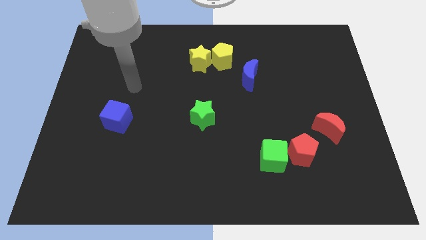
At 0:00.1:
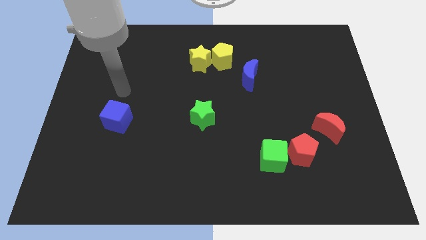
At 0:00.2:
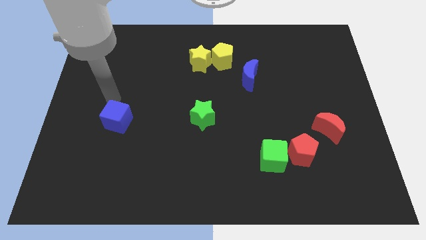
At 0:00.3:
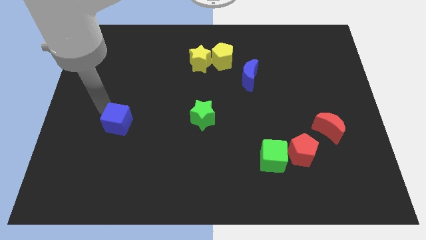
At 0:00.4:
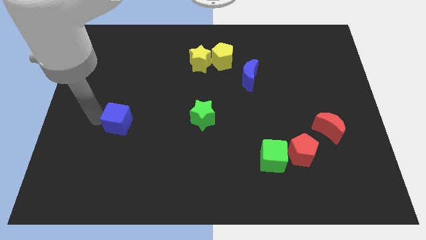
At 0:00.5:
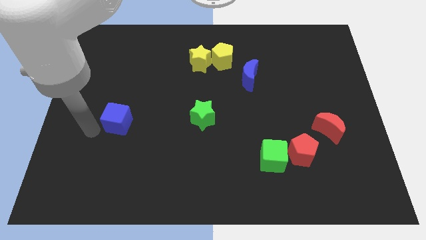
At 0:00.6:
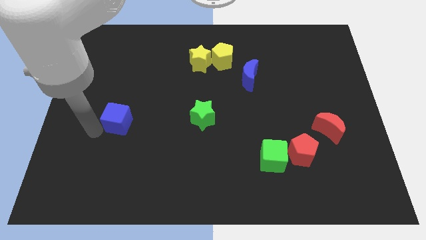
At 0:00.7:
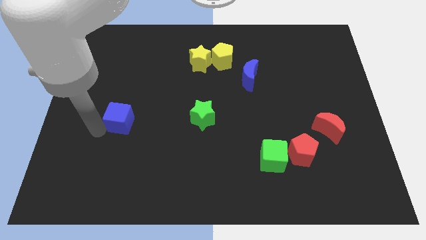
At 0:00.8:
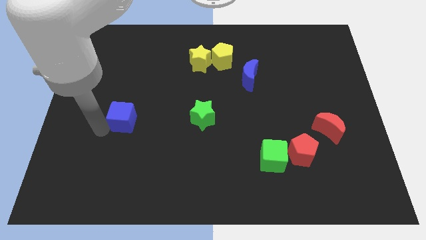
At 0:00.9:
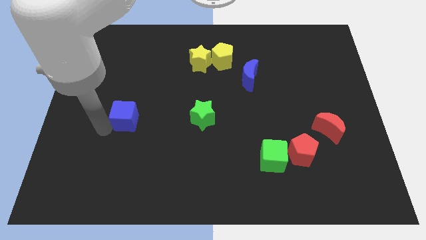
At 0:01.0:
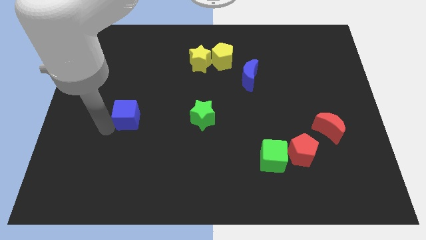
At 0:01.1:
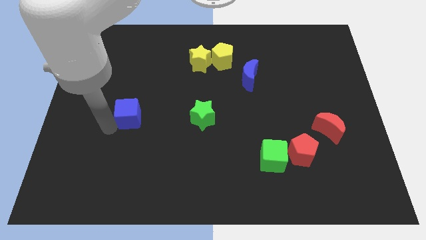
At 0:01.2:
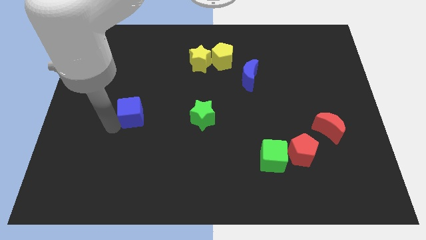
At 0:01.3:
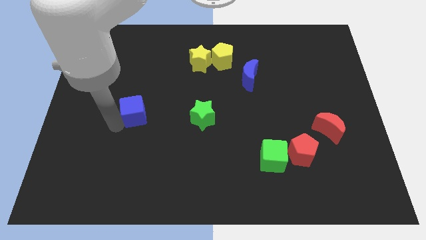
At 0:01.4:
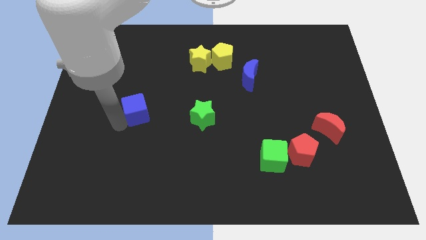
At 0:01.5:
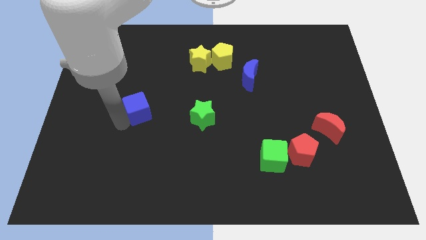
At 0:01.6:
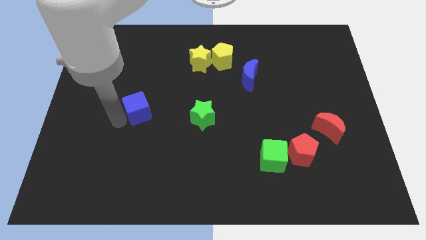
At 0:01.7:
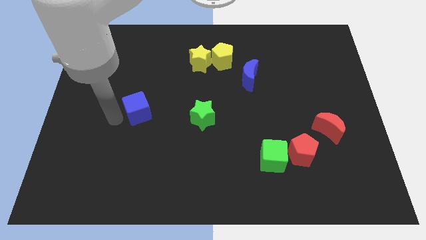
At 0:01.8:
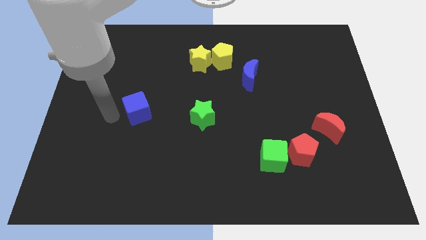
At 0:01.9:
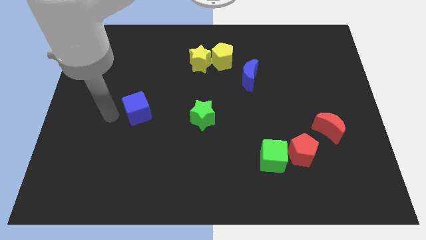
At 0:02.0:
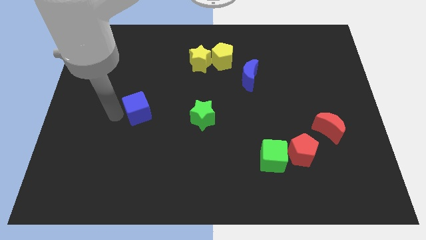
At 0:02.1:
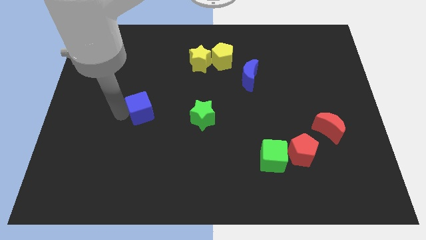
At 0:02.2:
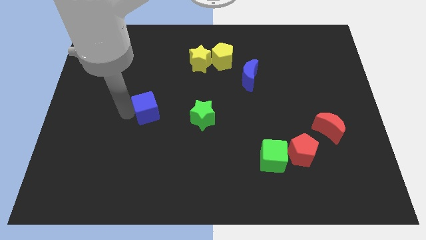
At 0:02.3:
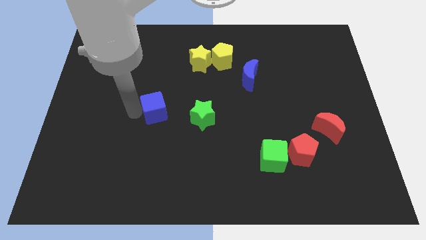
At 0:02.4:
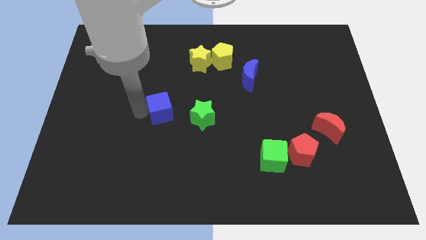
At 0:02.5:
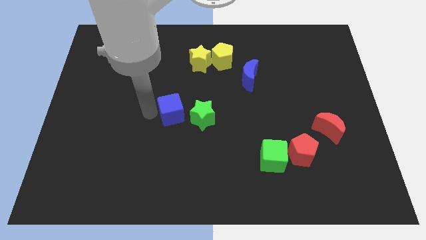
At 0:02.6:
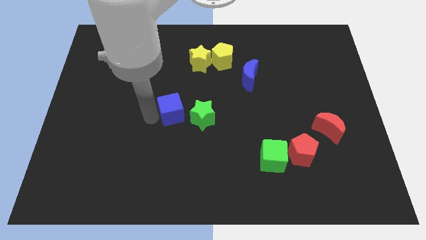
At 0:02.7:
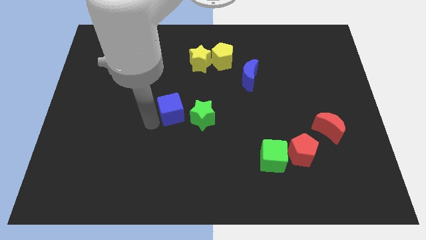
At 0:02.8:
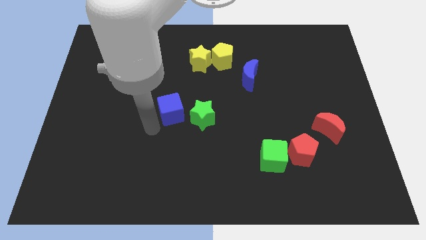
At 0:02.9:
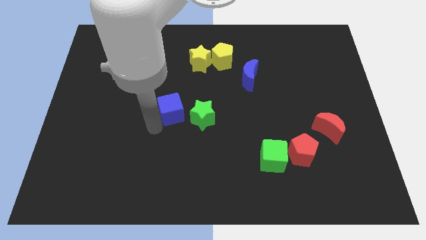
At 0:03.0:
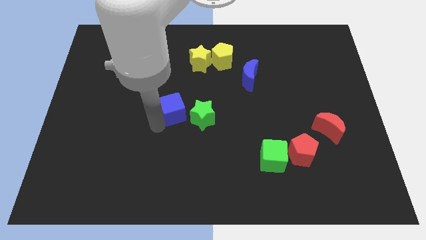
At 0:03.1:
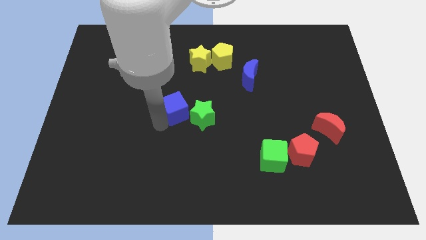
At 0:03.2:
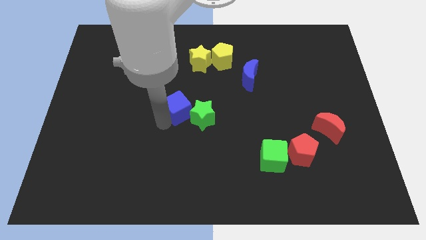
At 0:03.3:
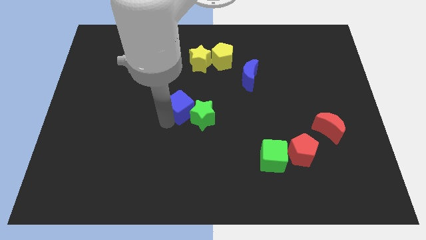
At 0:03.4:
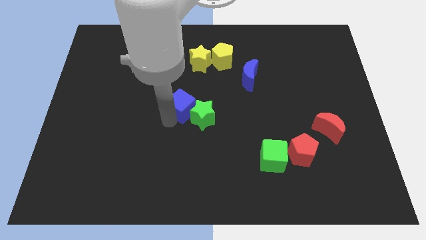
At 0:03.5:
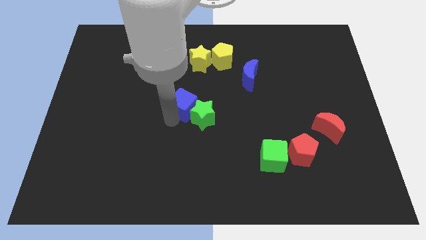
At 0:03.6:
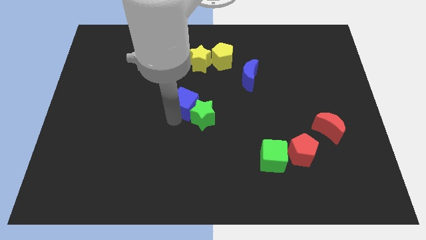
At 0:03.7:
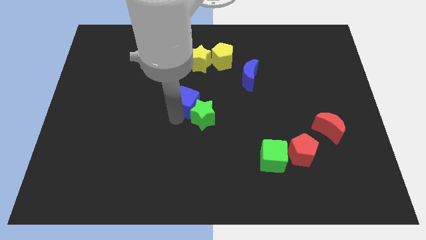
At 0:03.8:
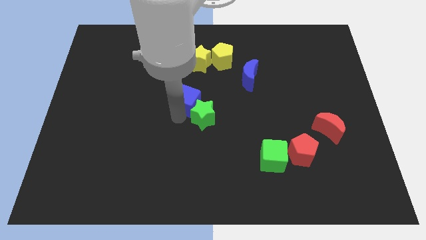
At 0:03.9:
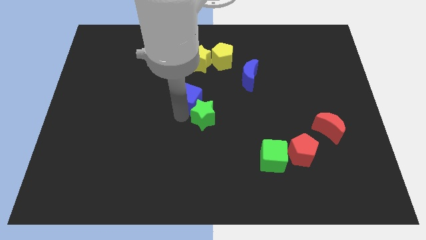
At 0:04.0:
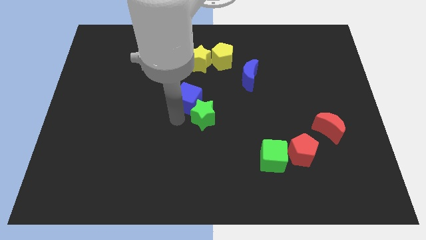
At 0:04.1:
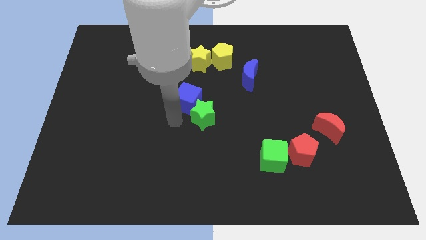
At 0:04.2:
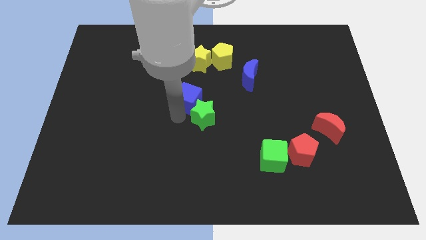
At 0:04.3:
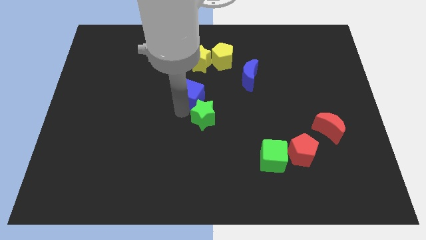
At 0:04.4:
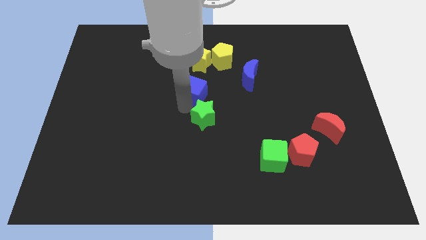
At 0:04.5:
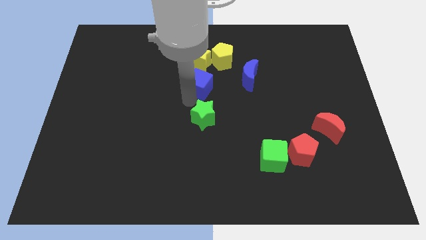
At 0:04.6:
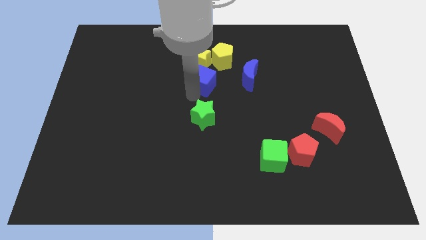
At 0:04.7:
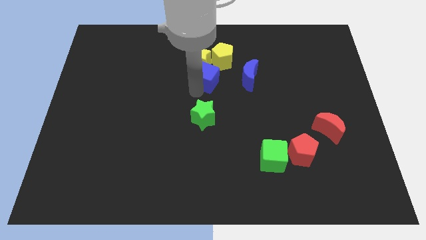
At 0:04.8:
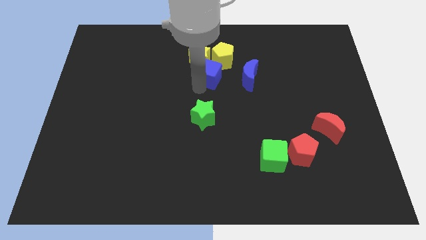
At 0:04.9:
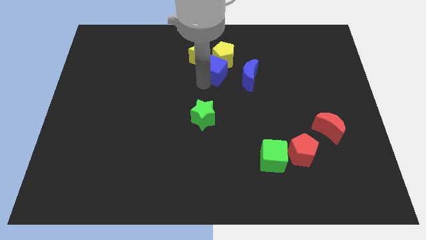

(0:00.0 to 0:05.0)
slide the blue cube close to the yellow pentagon

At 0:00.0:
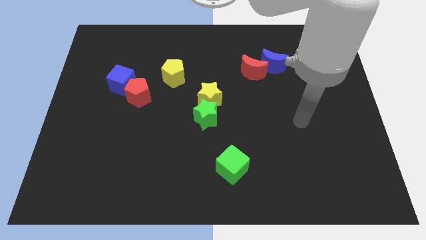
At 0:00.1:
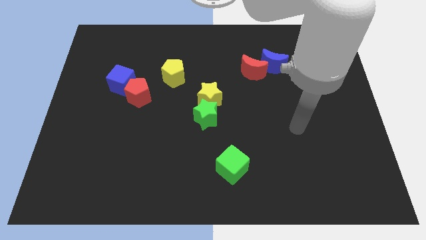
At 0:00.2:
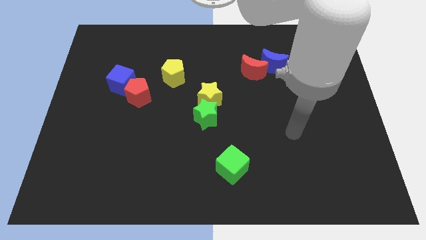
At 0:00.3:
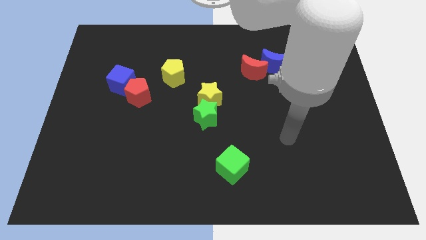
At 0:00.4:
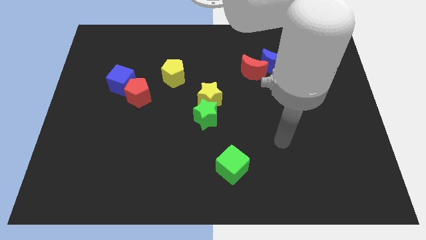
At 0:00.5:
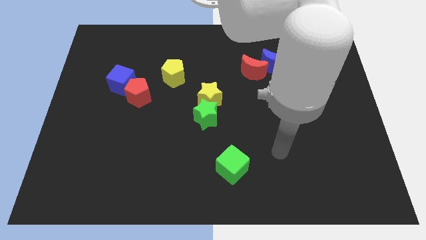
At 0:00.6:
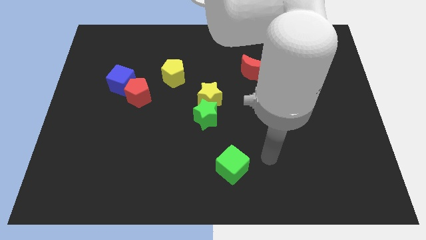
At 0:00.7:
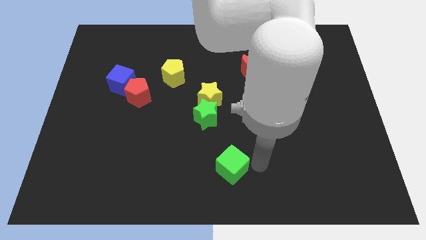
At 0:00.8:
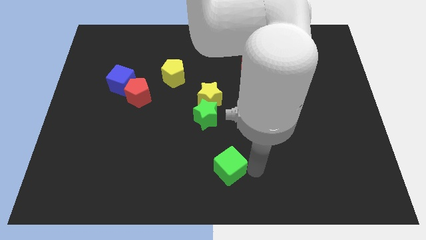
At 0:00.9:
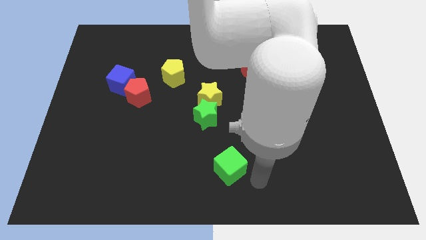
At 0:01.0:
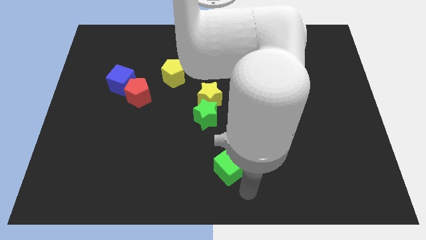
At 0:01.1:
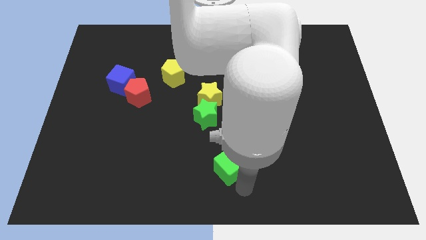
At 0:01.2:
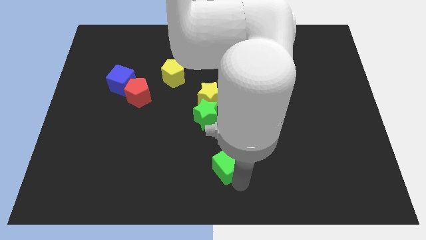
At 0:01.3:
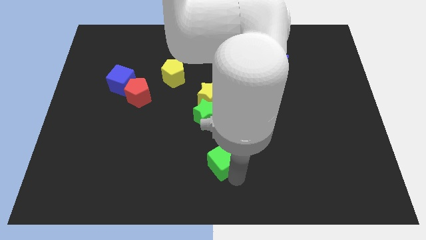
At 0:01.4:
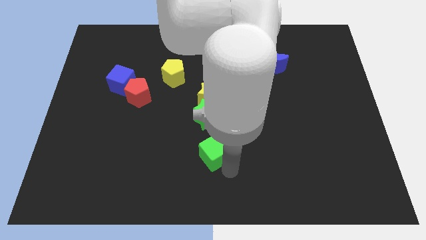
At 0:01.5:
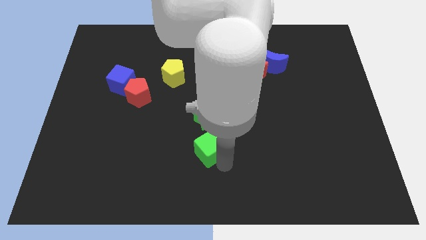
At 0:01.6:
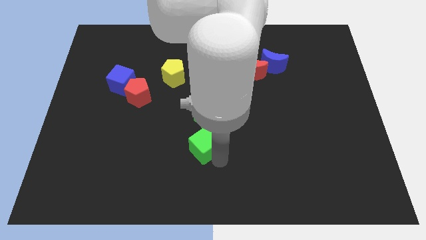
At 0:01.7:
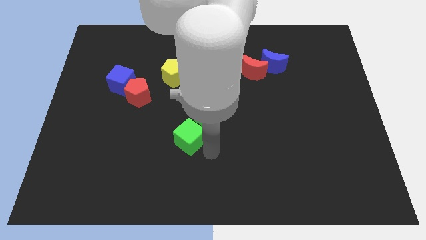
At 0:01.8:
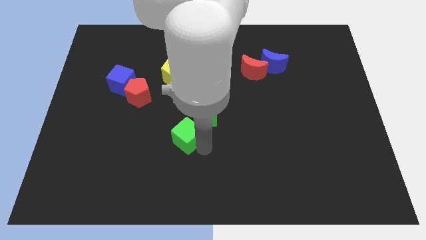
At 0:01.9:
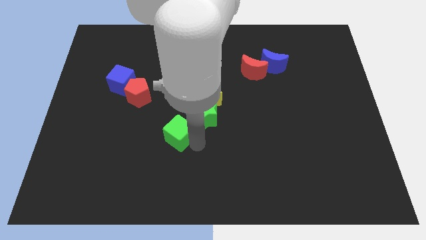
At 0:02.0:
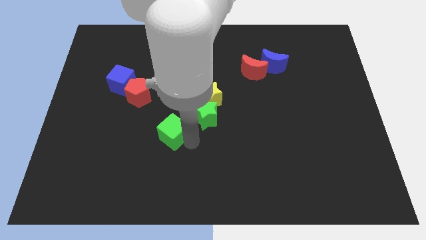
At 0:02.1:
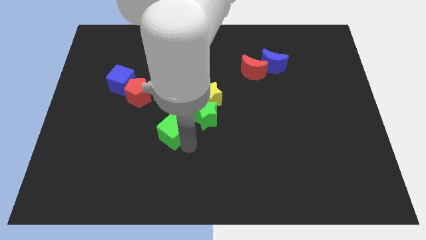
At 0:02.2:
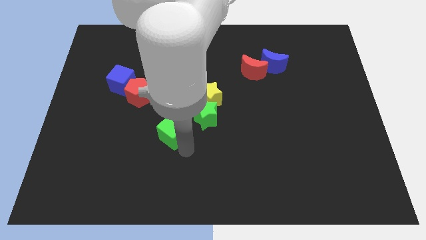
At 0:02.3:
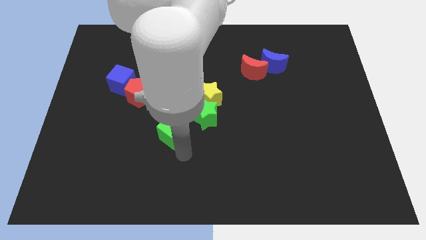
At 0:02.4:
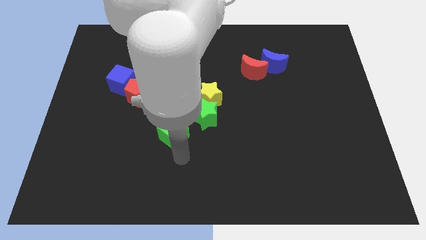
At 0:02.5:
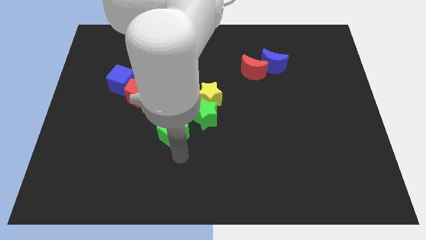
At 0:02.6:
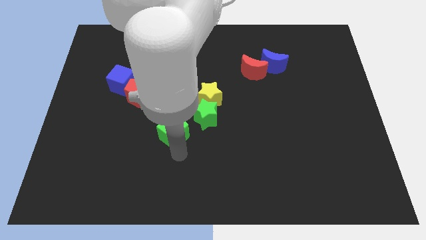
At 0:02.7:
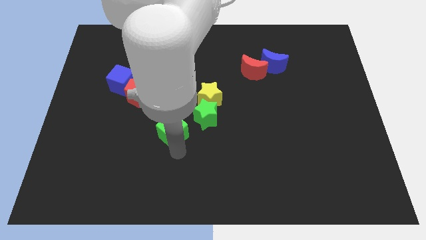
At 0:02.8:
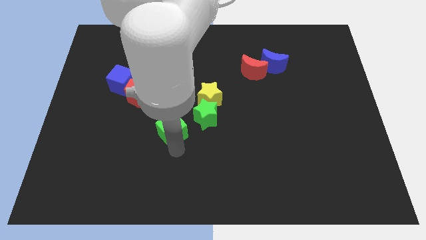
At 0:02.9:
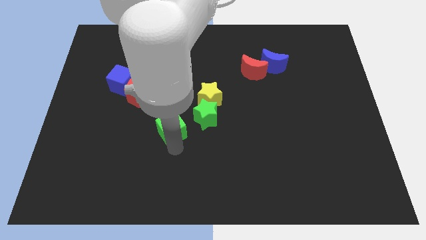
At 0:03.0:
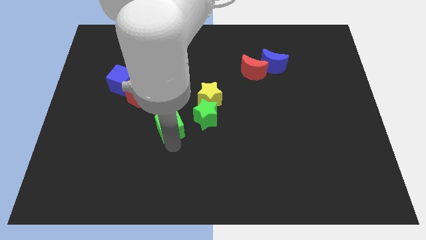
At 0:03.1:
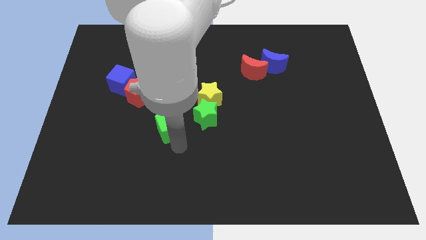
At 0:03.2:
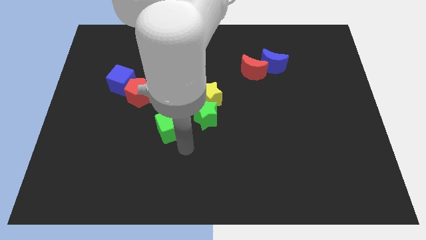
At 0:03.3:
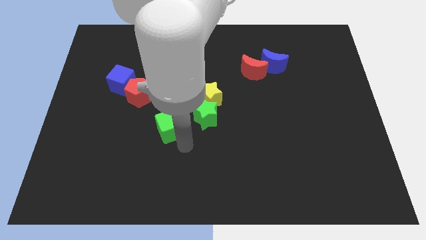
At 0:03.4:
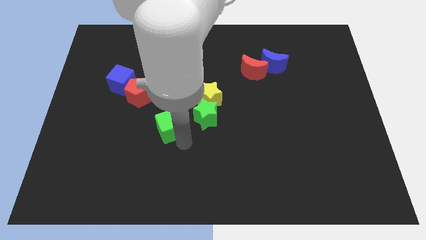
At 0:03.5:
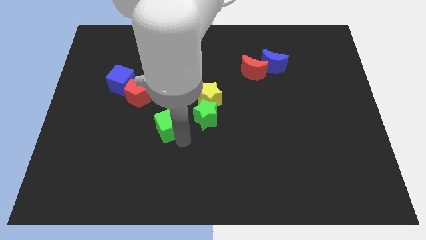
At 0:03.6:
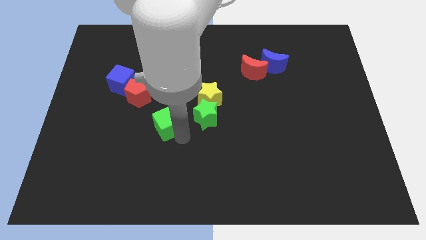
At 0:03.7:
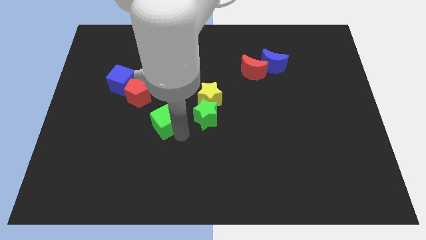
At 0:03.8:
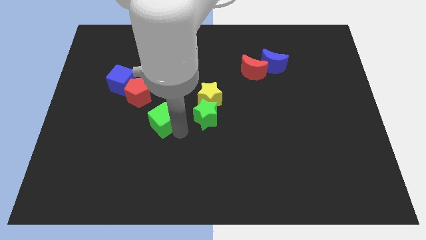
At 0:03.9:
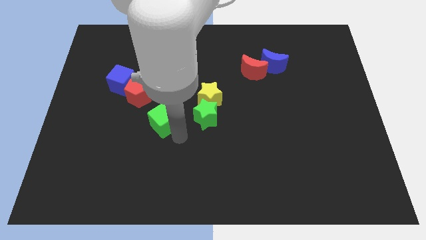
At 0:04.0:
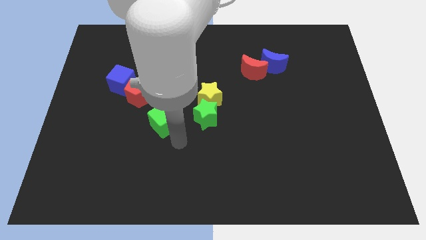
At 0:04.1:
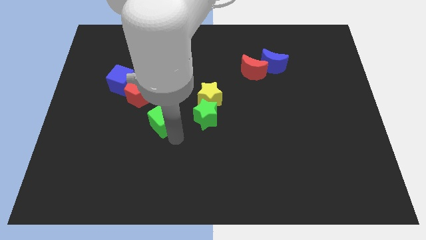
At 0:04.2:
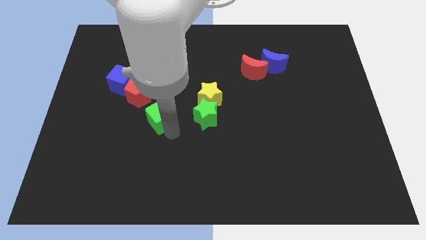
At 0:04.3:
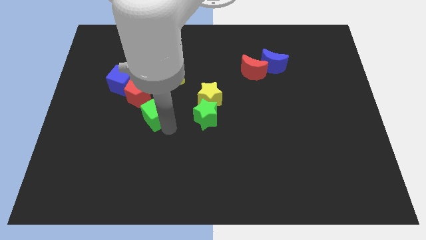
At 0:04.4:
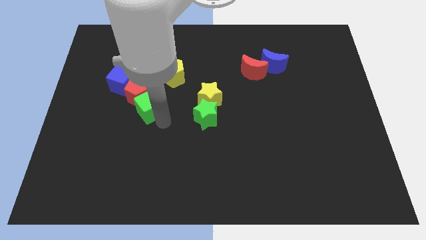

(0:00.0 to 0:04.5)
slide the green cube to the red pentagon
